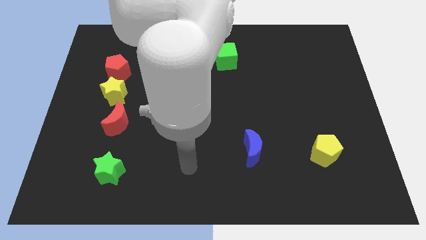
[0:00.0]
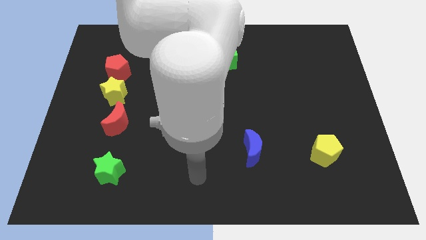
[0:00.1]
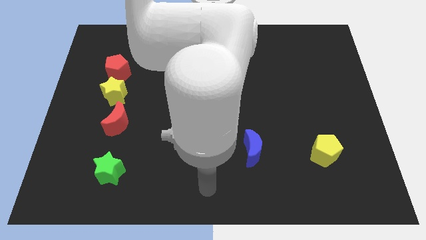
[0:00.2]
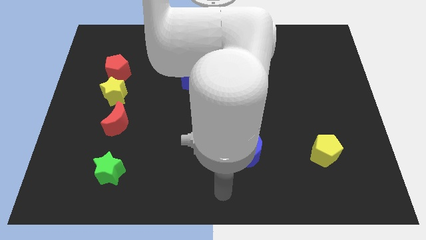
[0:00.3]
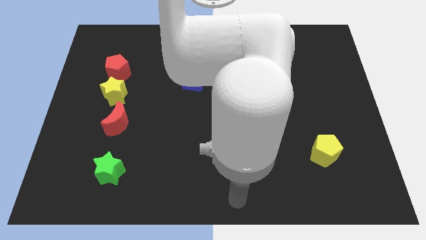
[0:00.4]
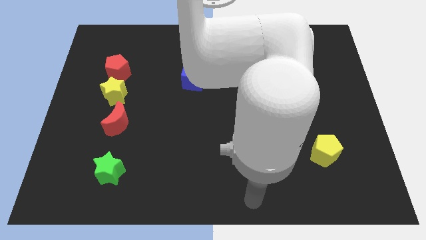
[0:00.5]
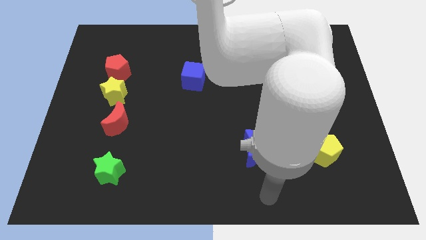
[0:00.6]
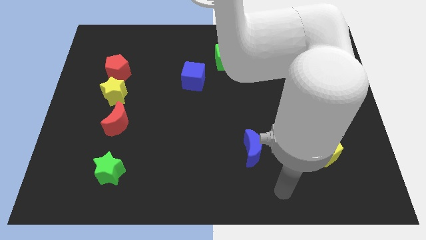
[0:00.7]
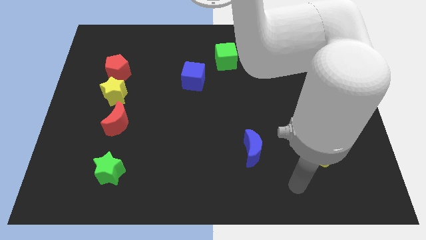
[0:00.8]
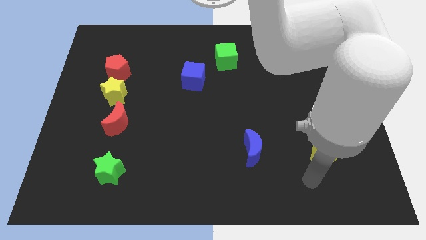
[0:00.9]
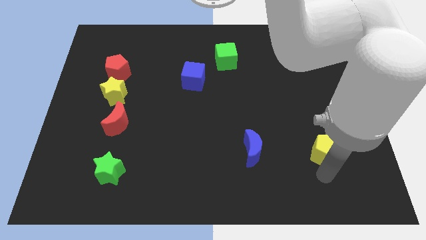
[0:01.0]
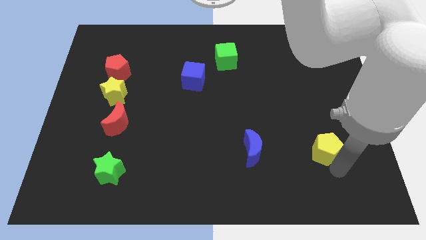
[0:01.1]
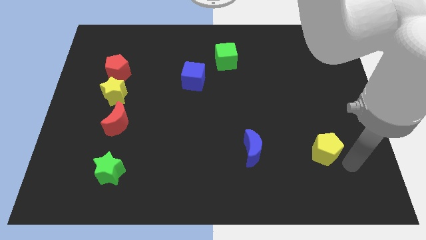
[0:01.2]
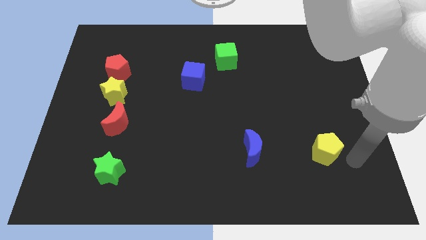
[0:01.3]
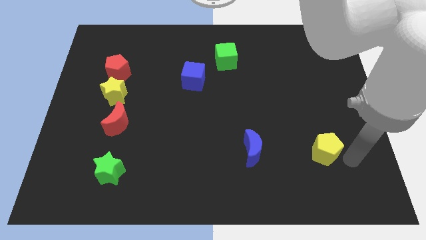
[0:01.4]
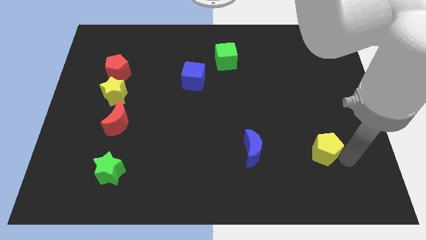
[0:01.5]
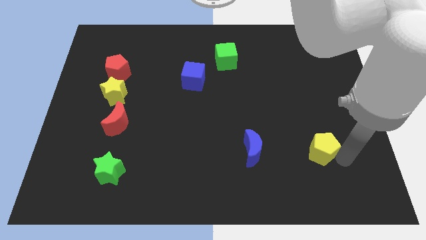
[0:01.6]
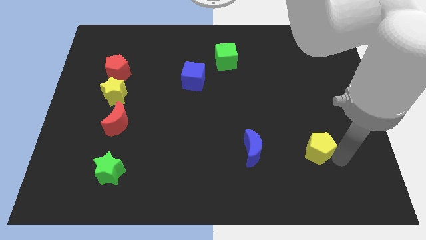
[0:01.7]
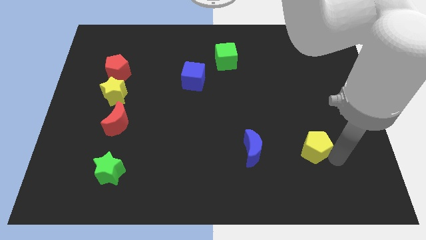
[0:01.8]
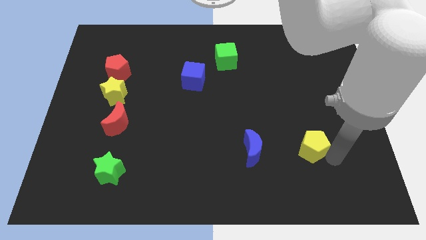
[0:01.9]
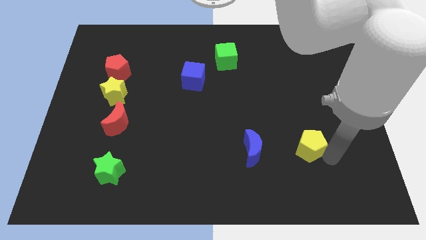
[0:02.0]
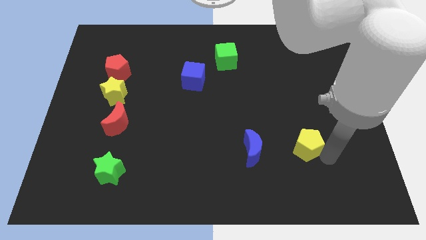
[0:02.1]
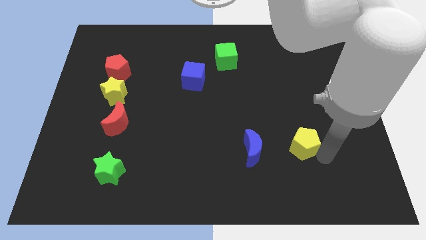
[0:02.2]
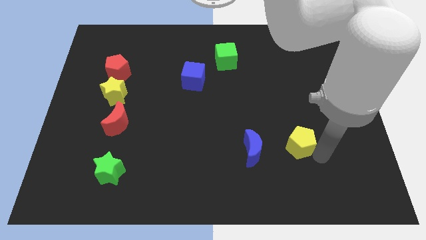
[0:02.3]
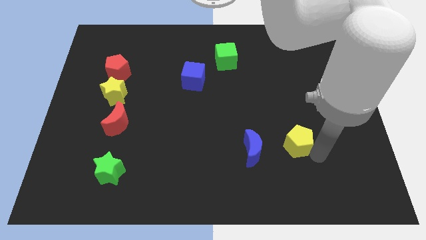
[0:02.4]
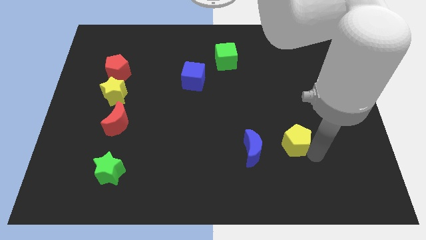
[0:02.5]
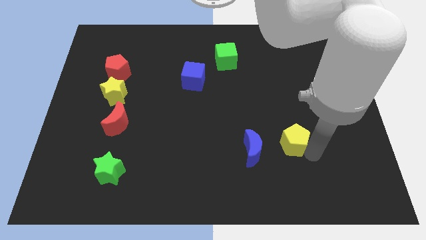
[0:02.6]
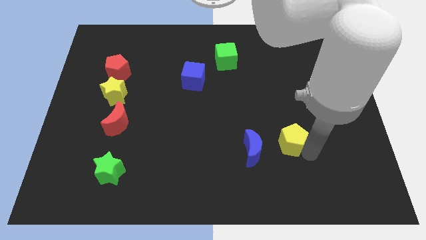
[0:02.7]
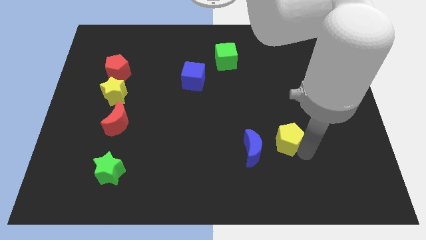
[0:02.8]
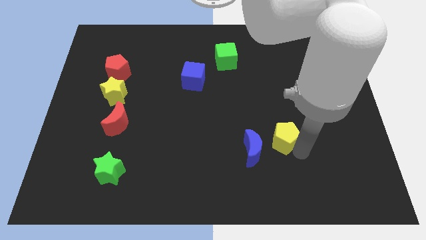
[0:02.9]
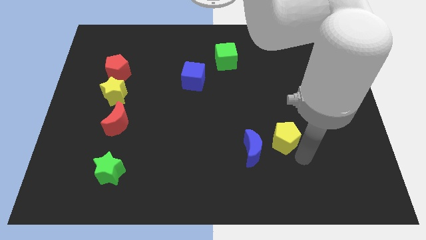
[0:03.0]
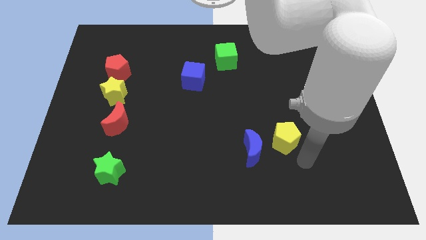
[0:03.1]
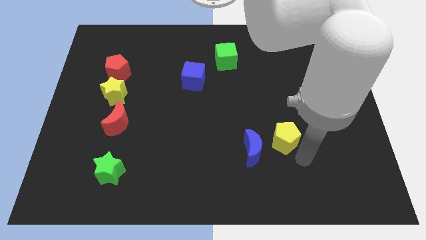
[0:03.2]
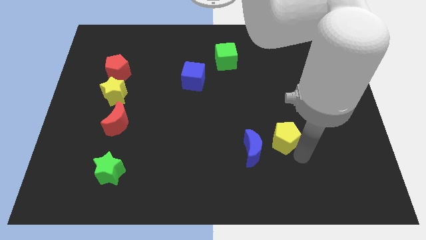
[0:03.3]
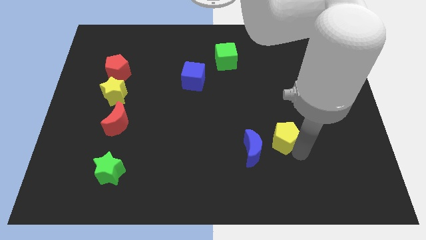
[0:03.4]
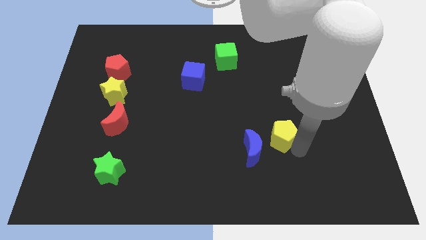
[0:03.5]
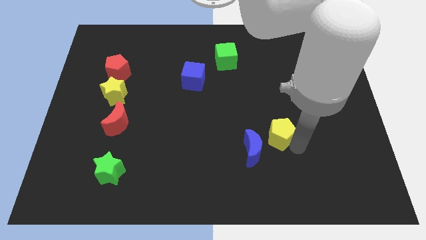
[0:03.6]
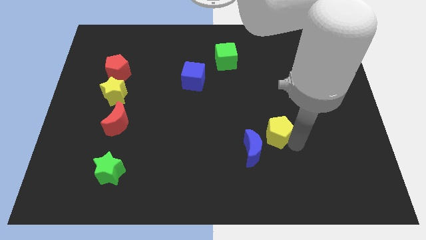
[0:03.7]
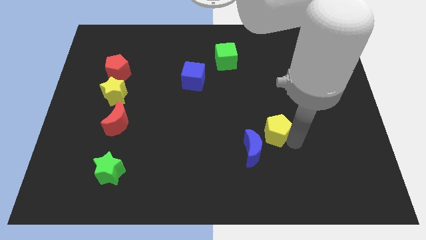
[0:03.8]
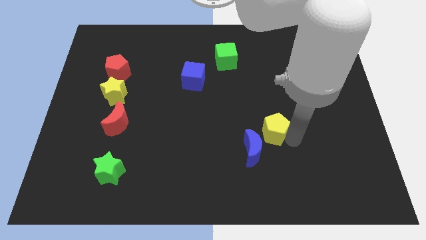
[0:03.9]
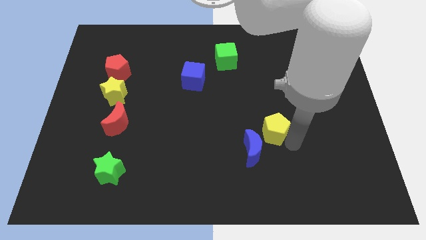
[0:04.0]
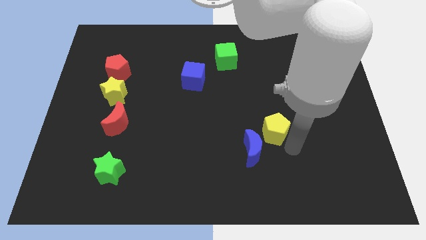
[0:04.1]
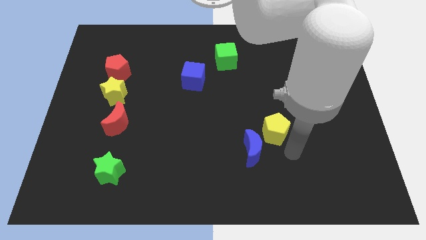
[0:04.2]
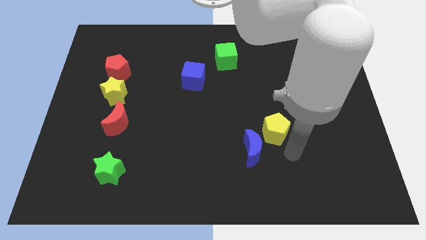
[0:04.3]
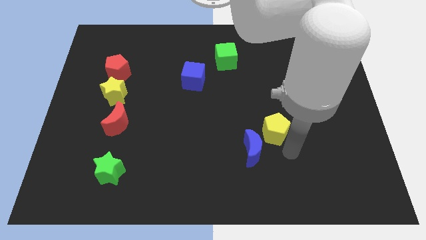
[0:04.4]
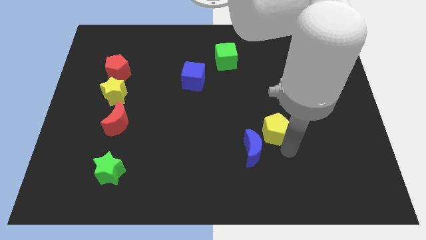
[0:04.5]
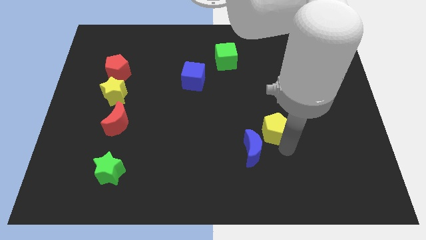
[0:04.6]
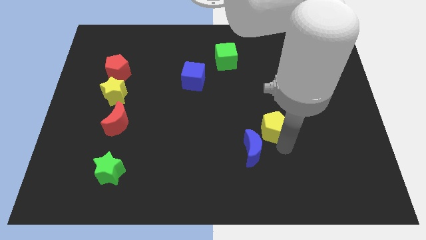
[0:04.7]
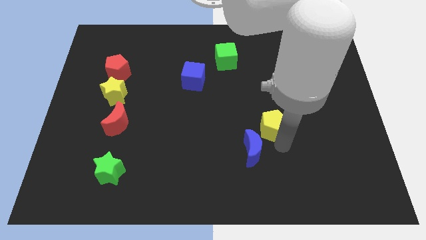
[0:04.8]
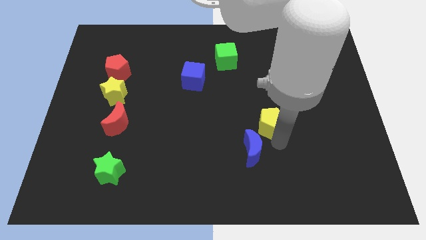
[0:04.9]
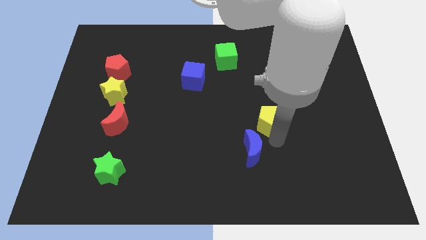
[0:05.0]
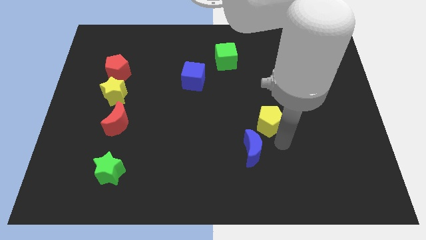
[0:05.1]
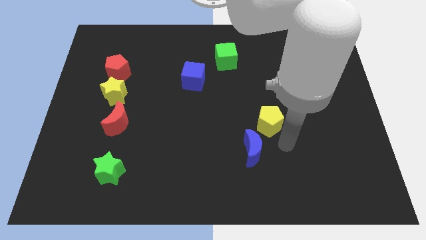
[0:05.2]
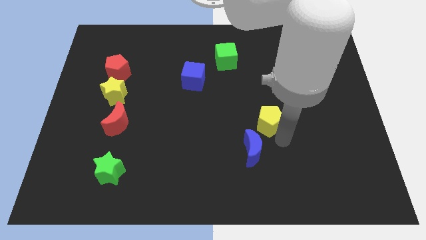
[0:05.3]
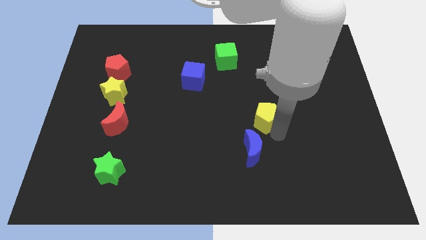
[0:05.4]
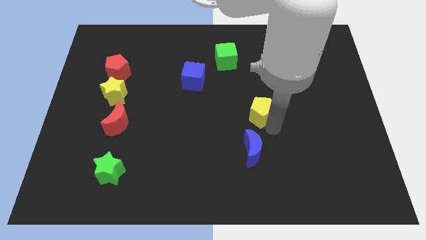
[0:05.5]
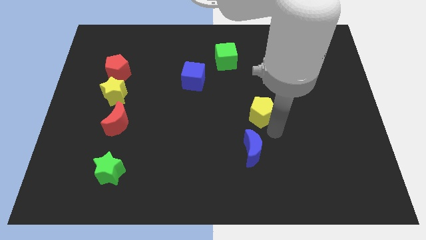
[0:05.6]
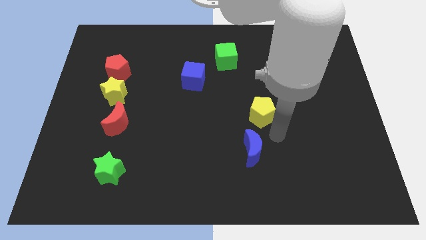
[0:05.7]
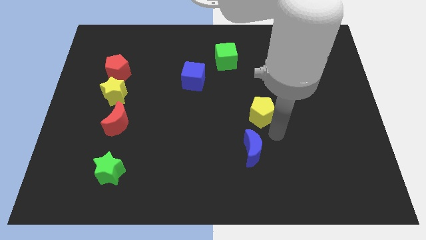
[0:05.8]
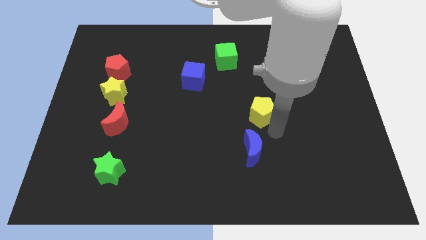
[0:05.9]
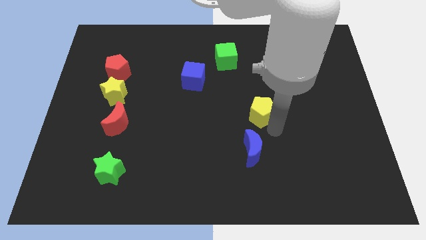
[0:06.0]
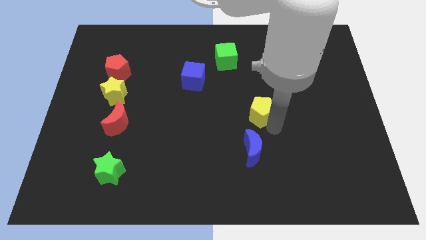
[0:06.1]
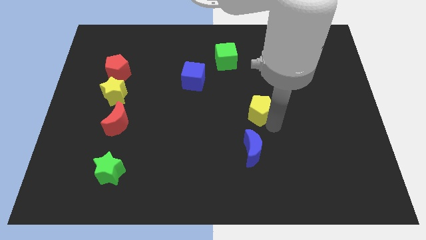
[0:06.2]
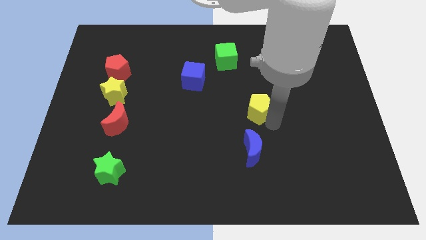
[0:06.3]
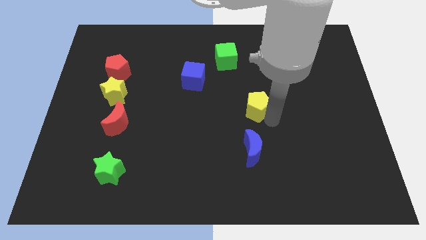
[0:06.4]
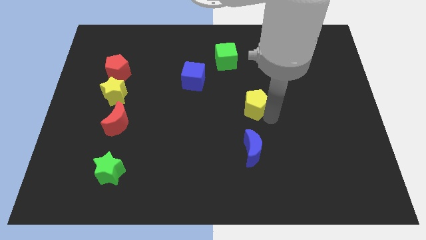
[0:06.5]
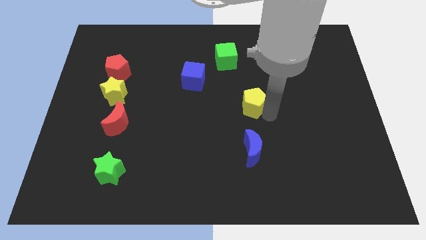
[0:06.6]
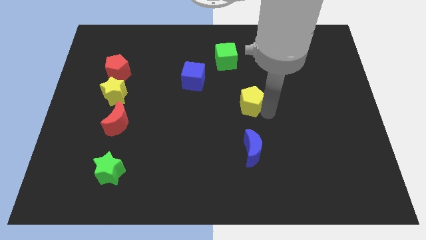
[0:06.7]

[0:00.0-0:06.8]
push the yellow pentagon up and to the left

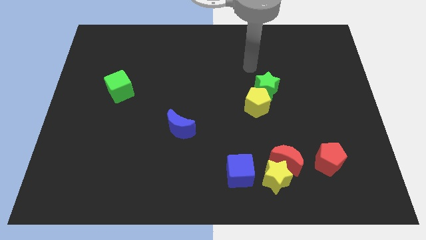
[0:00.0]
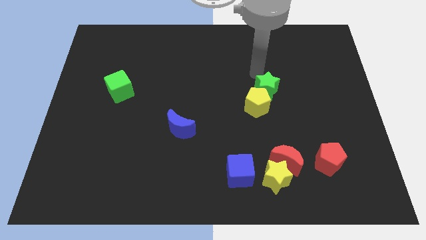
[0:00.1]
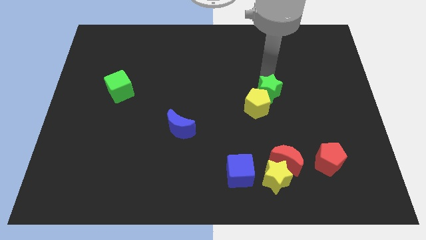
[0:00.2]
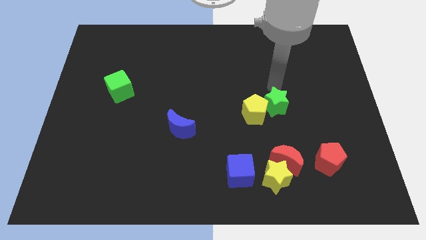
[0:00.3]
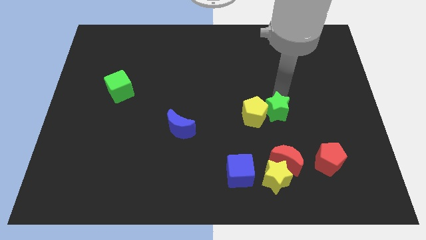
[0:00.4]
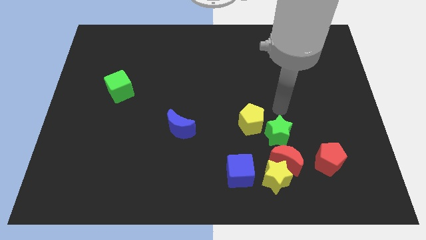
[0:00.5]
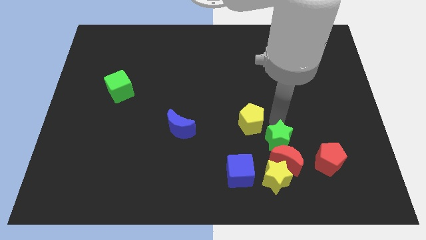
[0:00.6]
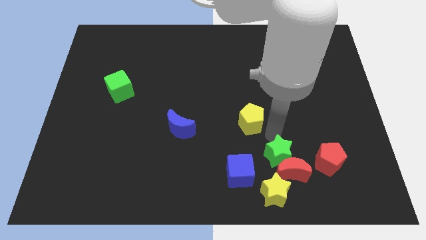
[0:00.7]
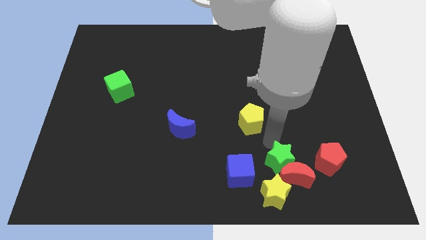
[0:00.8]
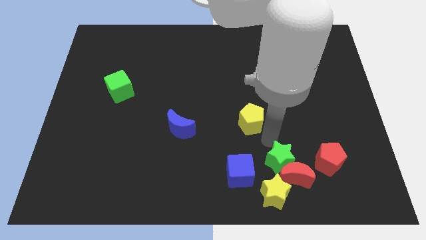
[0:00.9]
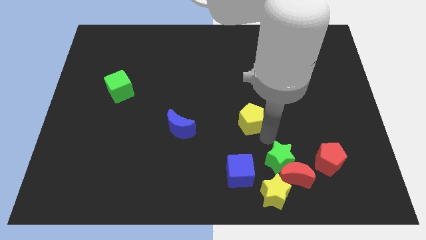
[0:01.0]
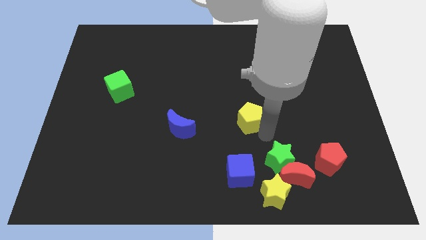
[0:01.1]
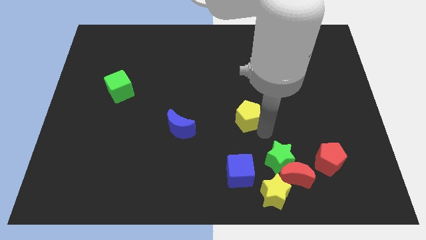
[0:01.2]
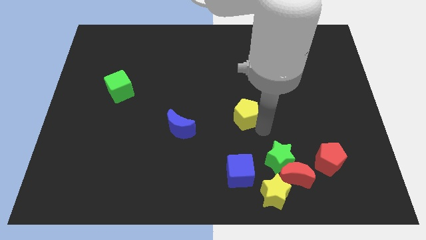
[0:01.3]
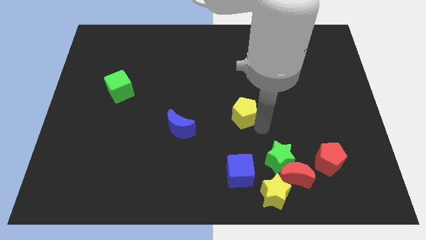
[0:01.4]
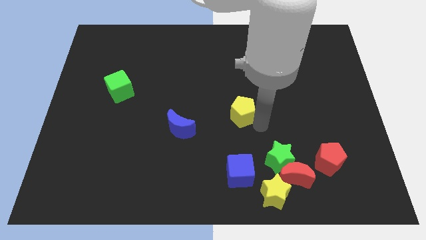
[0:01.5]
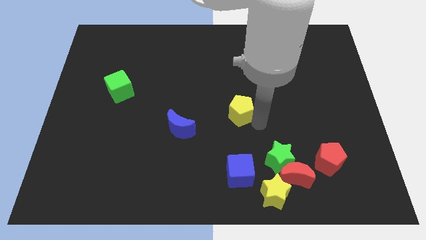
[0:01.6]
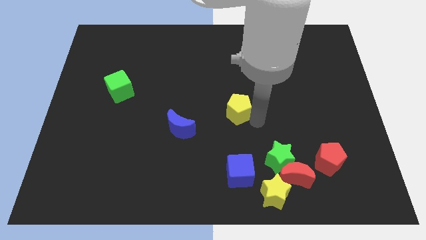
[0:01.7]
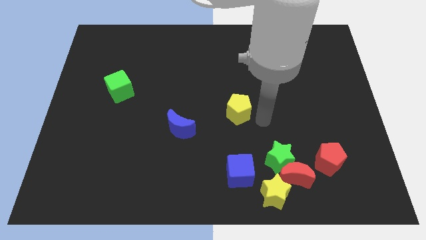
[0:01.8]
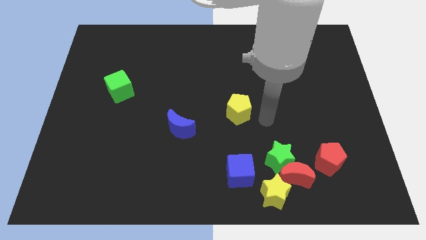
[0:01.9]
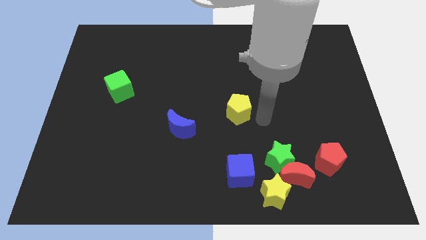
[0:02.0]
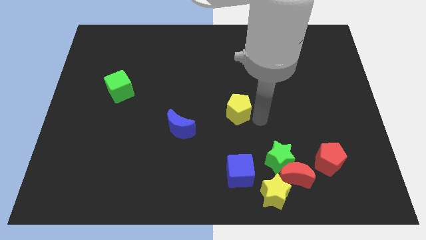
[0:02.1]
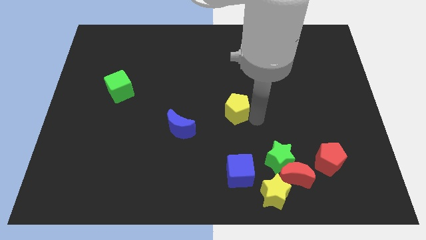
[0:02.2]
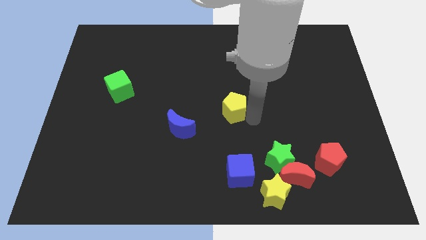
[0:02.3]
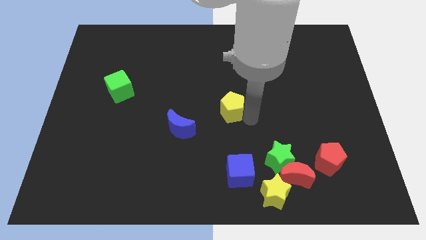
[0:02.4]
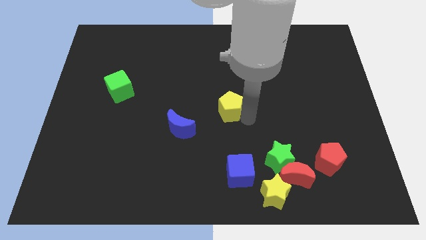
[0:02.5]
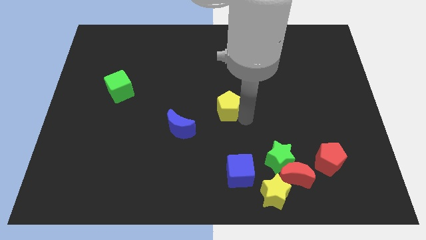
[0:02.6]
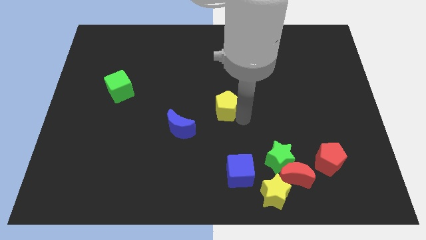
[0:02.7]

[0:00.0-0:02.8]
push the yellow pentagon left a little bit
